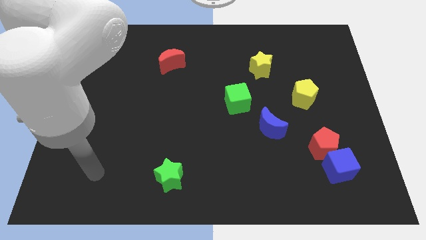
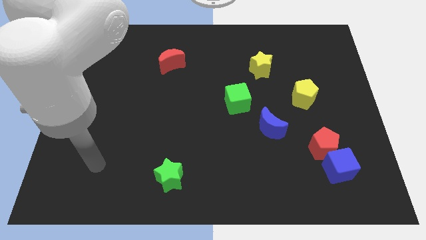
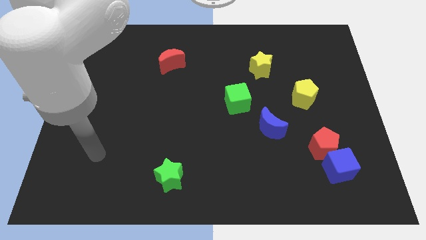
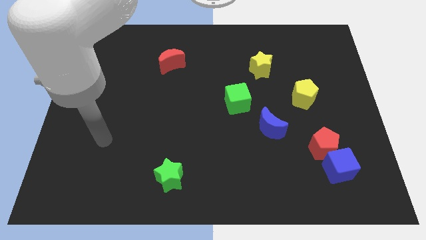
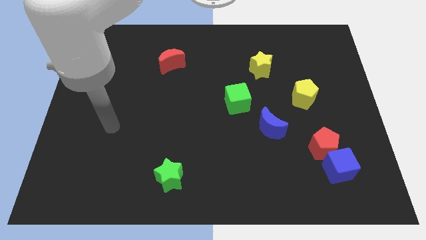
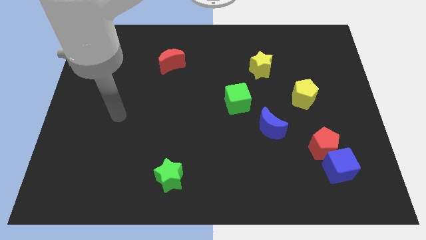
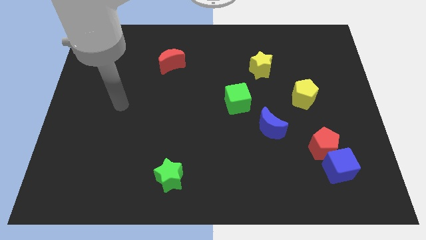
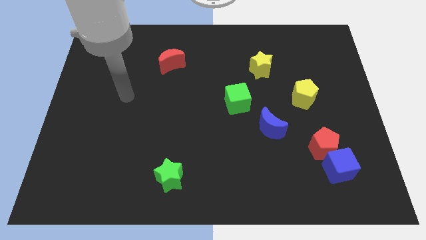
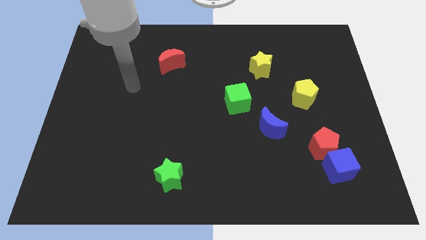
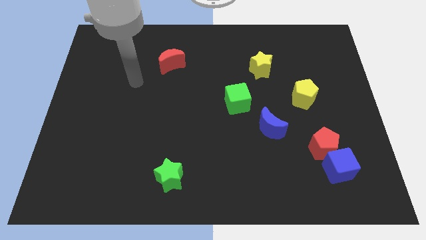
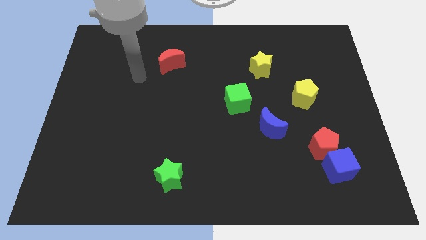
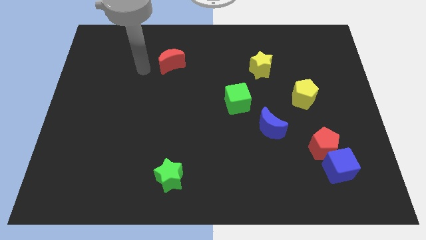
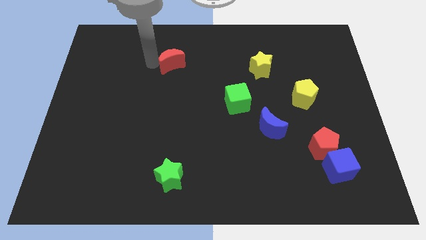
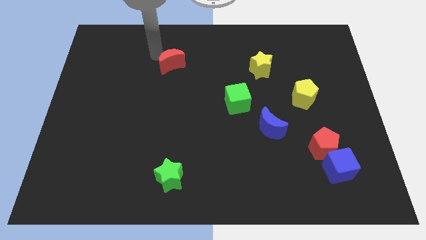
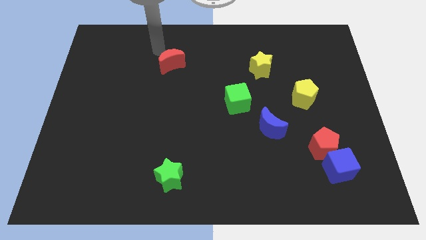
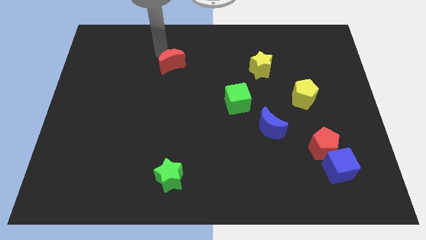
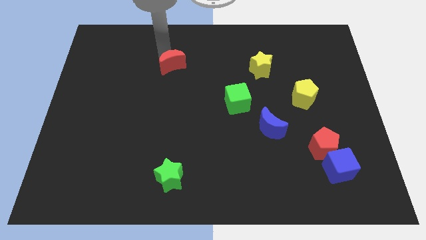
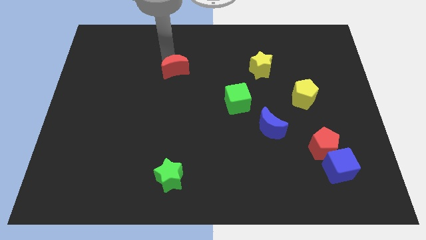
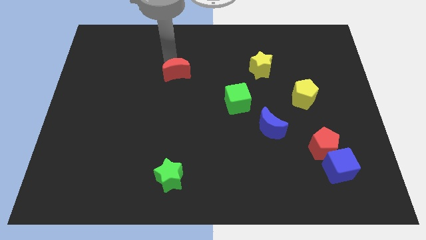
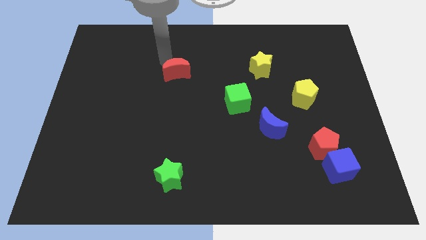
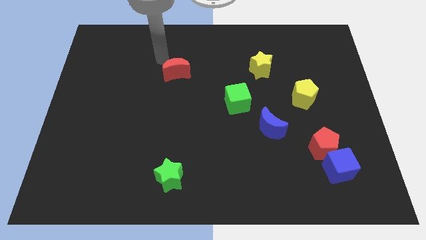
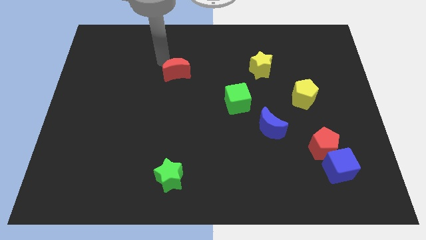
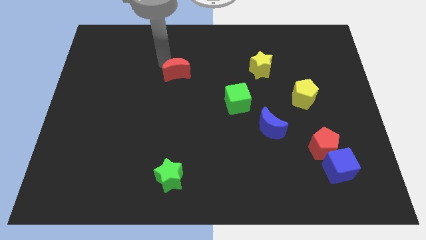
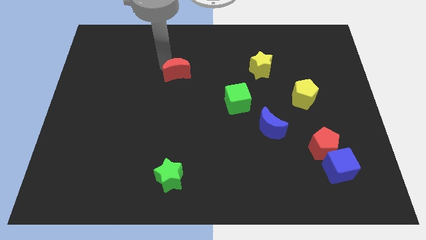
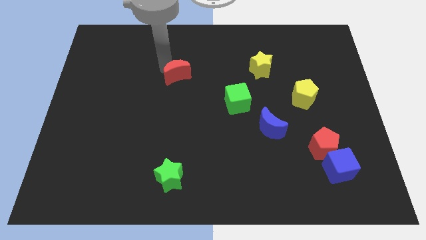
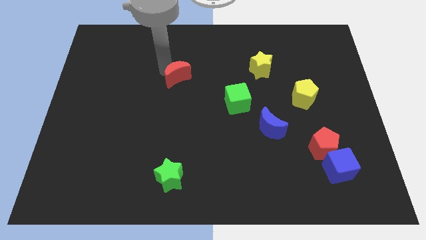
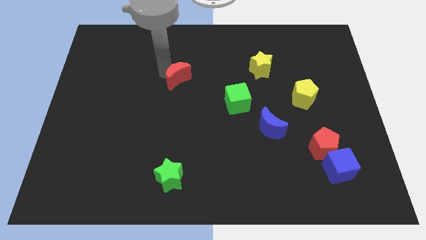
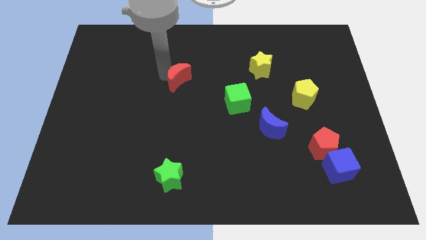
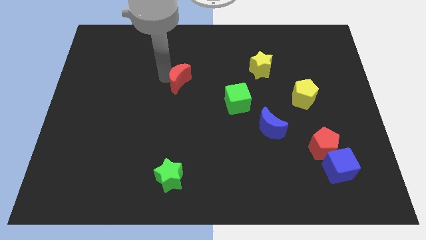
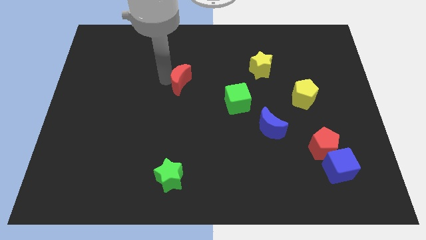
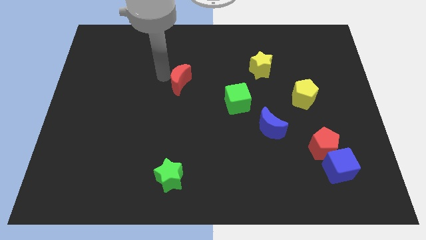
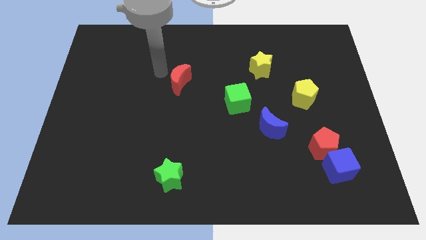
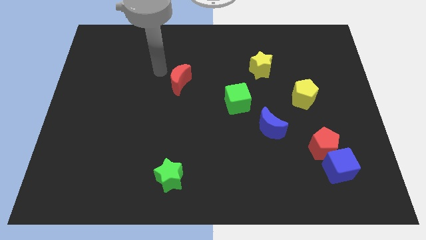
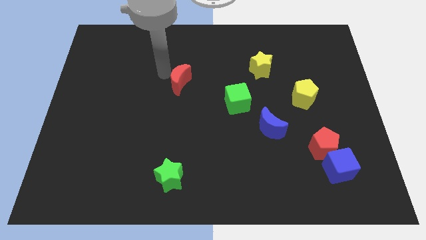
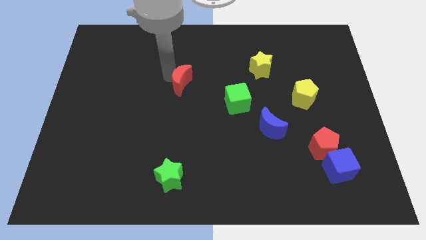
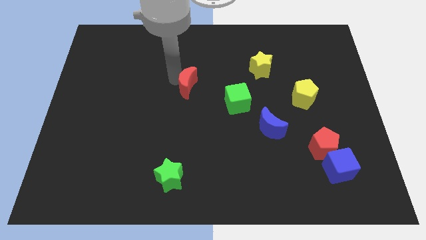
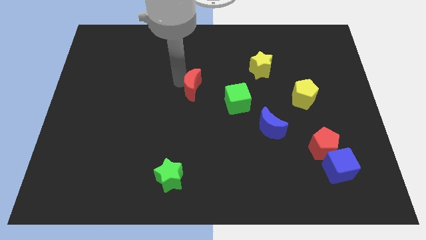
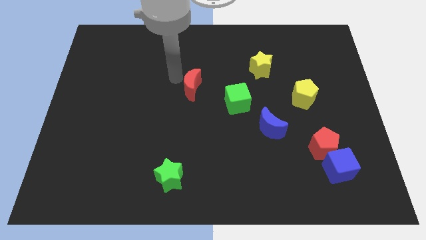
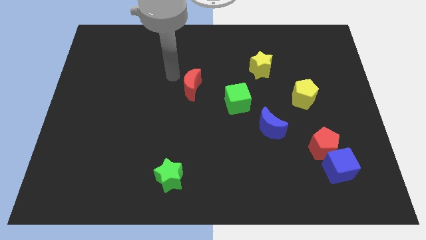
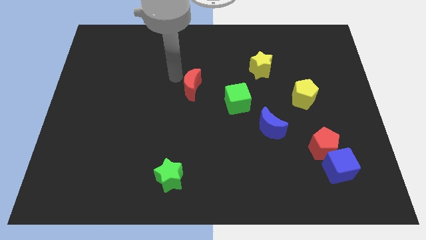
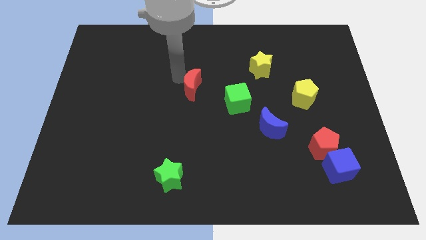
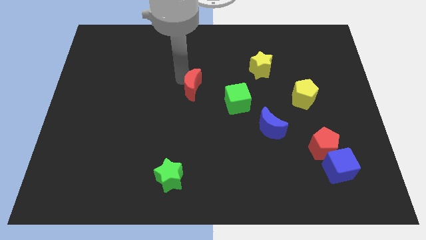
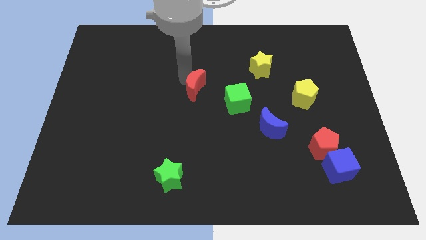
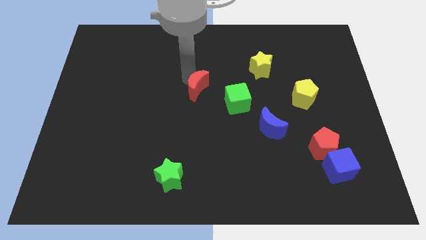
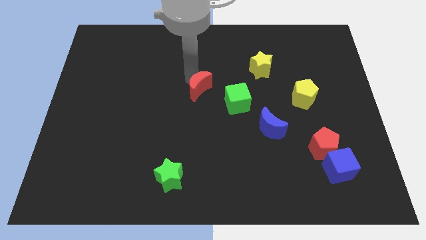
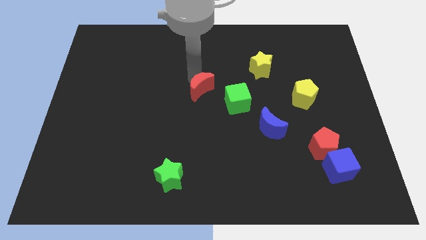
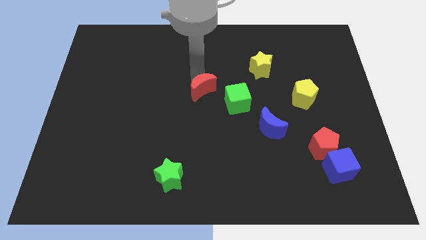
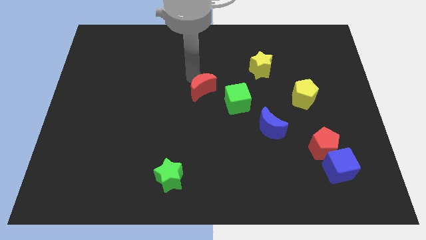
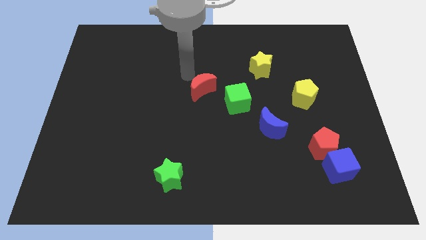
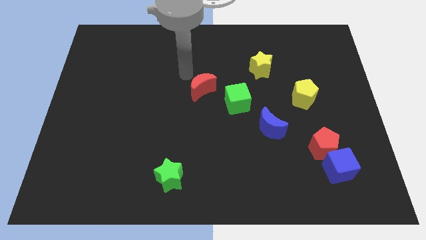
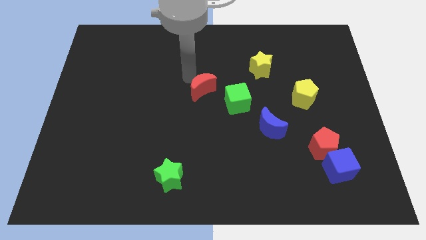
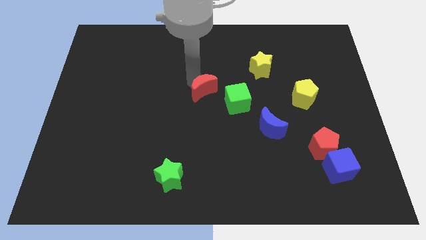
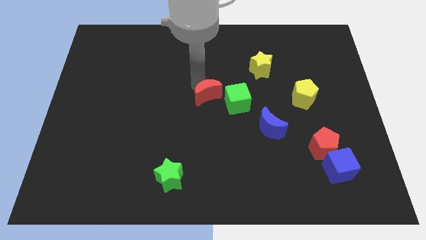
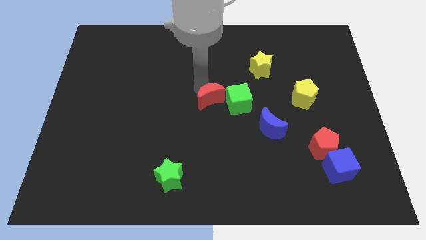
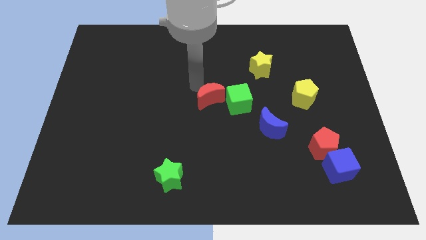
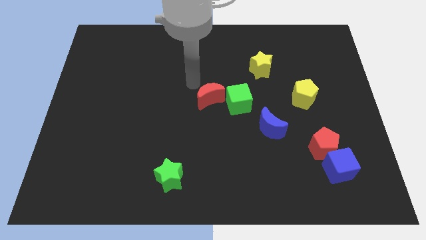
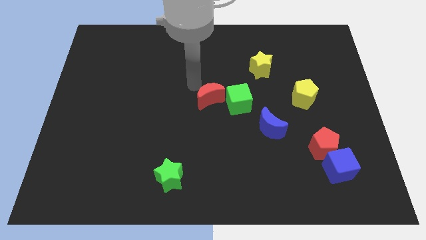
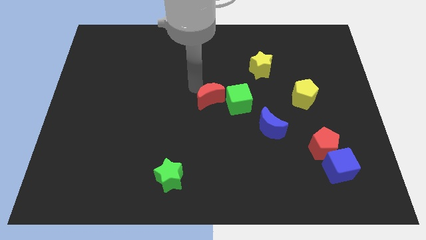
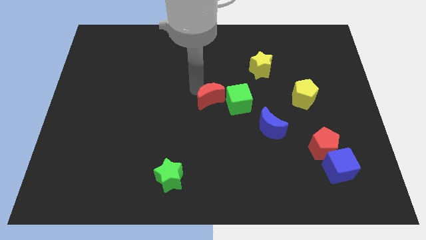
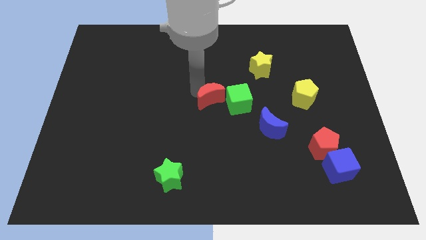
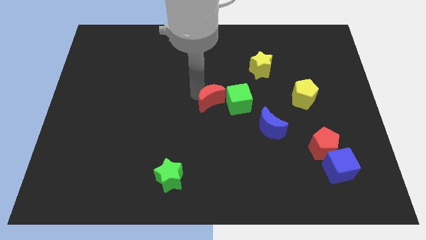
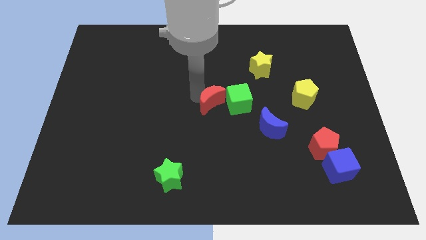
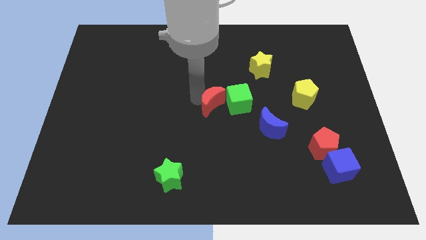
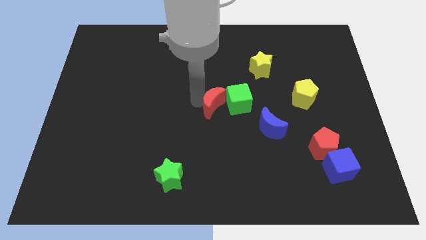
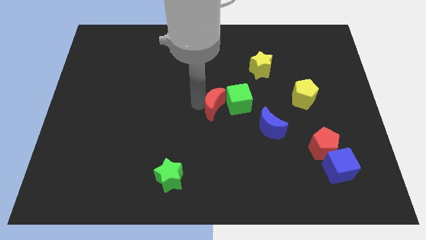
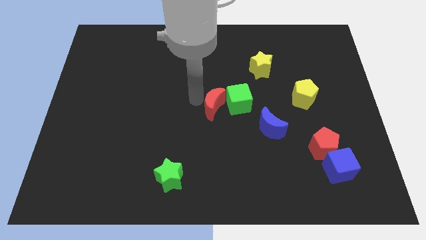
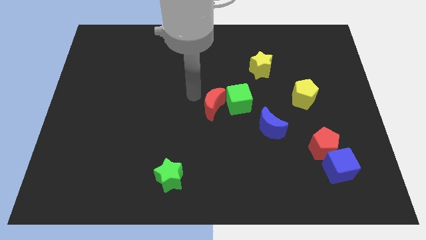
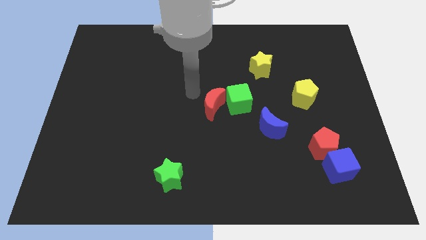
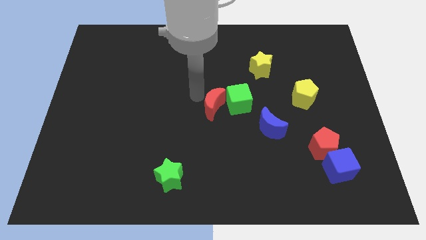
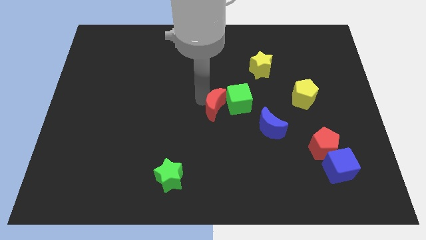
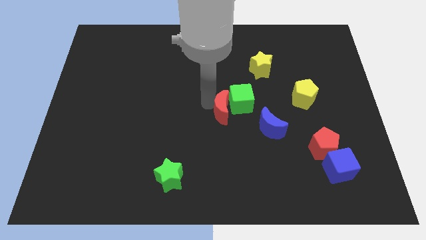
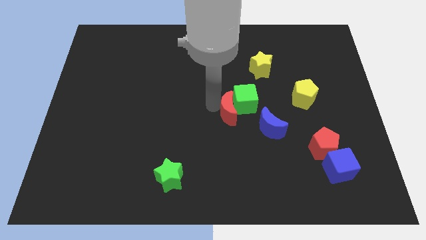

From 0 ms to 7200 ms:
move the red moon below the green cube
